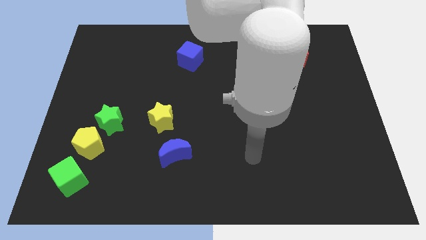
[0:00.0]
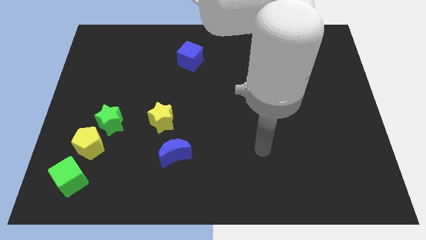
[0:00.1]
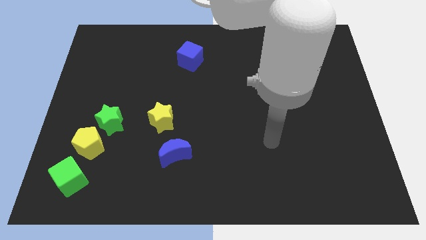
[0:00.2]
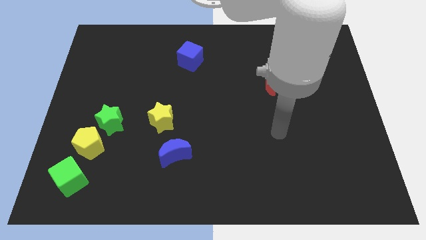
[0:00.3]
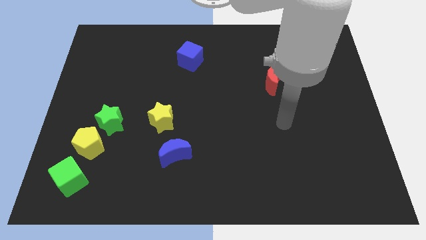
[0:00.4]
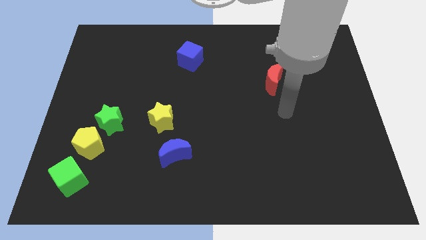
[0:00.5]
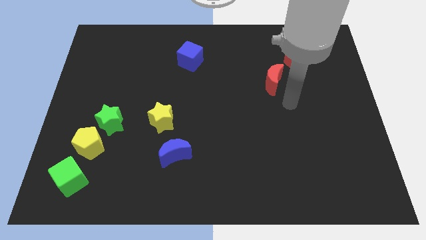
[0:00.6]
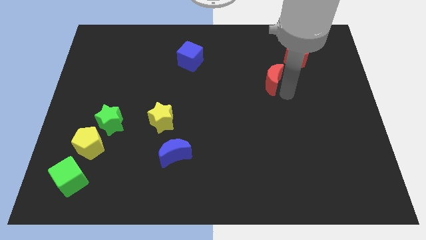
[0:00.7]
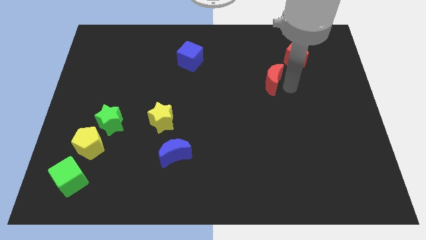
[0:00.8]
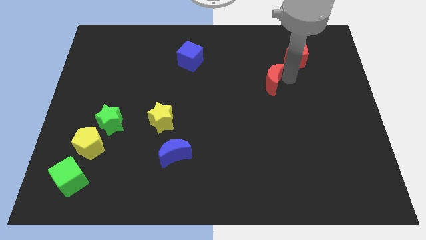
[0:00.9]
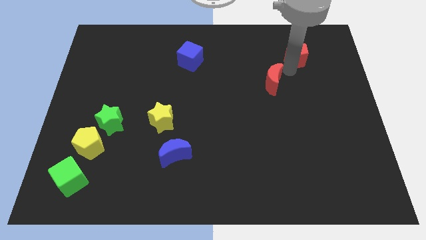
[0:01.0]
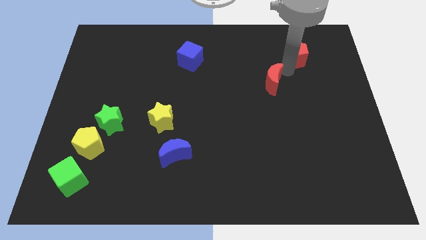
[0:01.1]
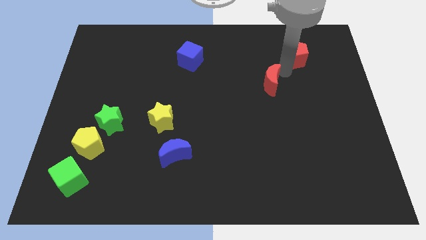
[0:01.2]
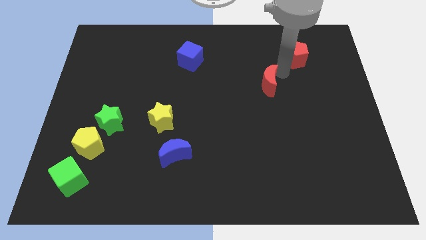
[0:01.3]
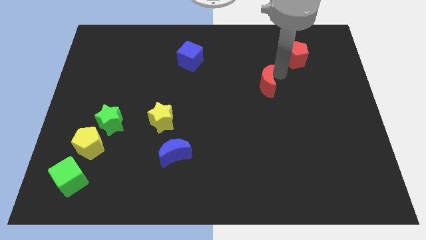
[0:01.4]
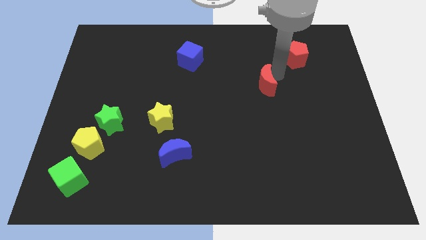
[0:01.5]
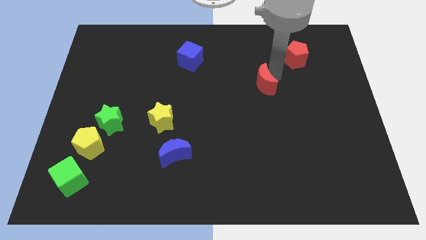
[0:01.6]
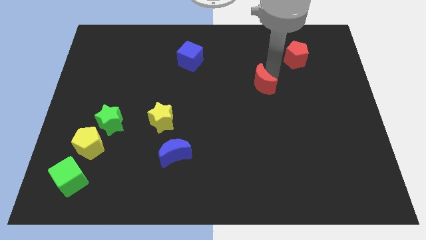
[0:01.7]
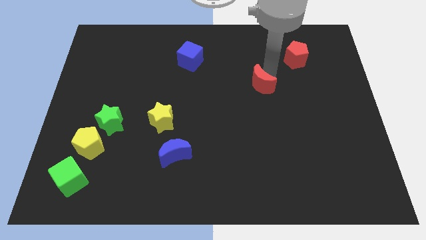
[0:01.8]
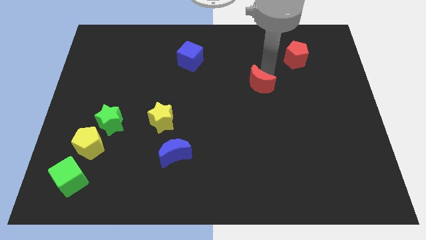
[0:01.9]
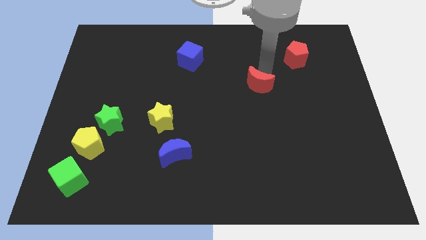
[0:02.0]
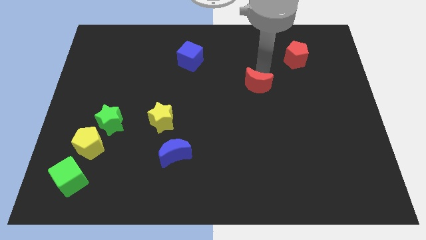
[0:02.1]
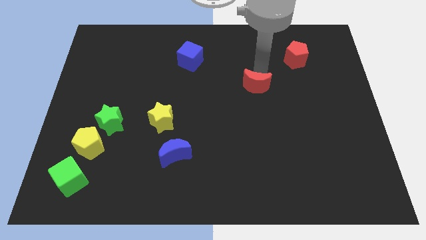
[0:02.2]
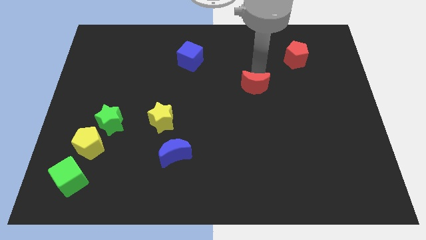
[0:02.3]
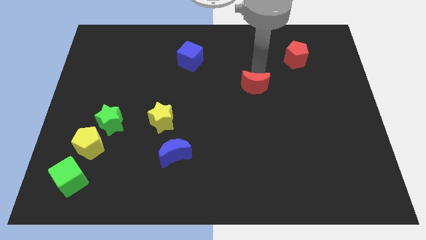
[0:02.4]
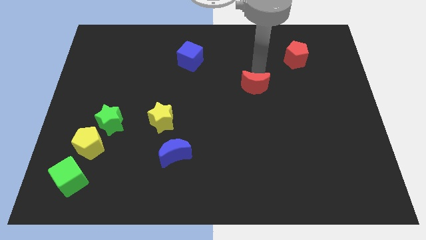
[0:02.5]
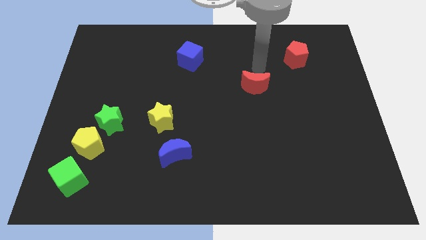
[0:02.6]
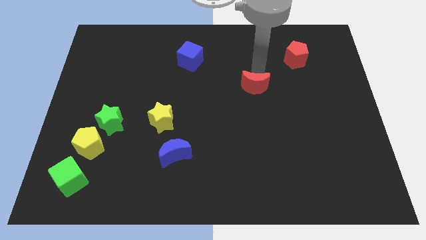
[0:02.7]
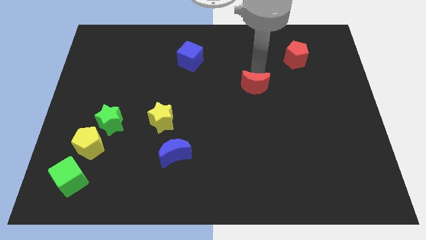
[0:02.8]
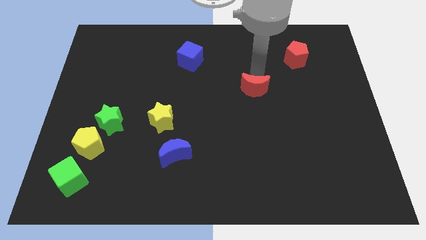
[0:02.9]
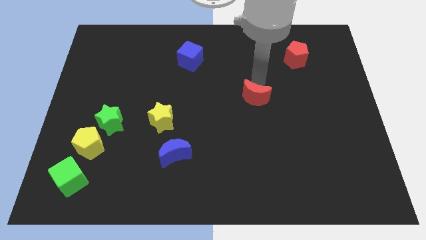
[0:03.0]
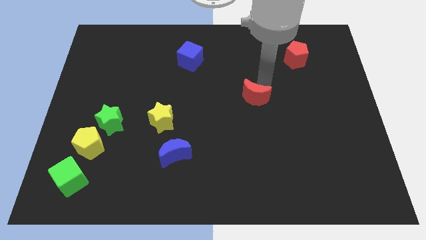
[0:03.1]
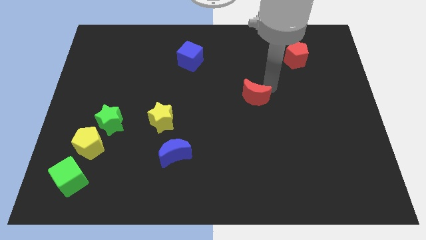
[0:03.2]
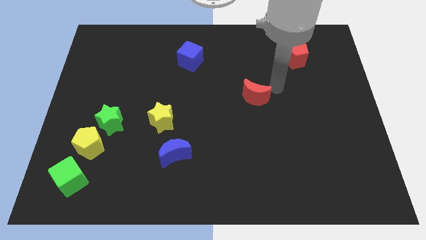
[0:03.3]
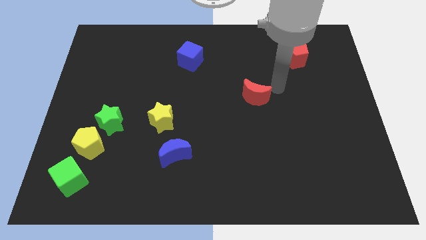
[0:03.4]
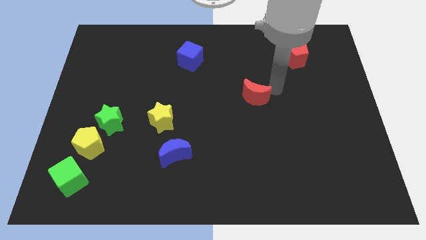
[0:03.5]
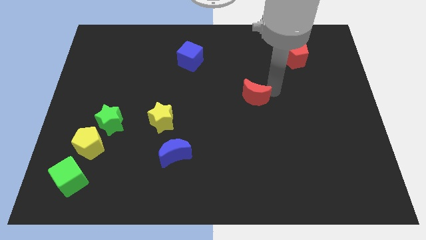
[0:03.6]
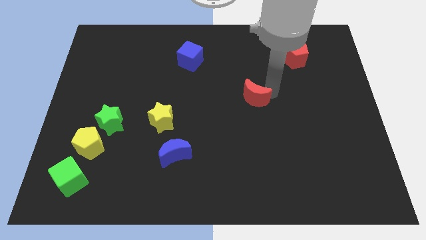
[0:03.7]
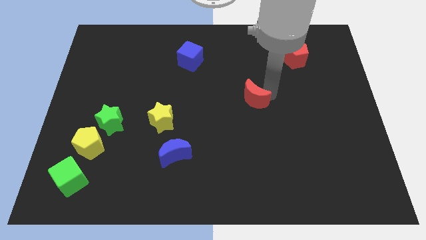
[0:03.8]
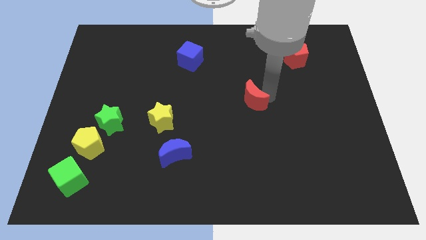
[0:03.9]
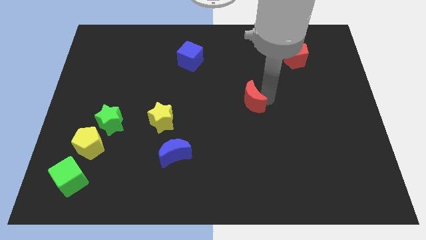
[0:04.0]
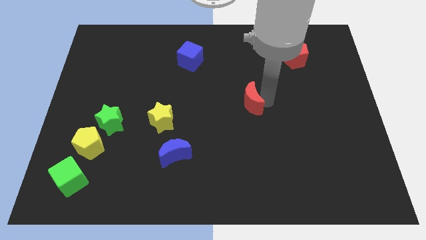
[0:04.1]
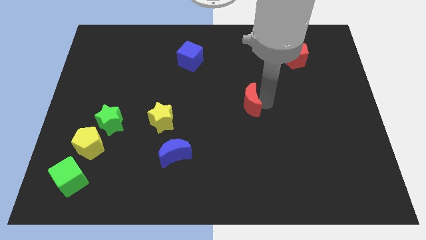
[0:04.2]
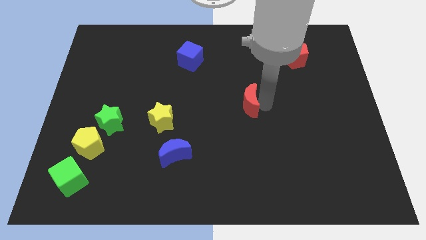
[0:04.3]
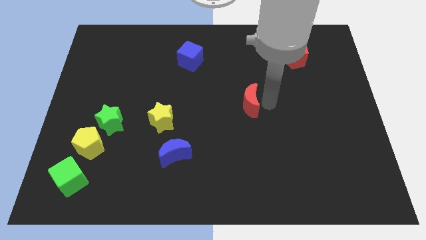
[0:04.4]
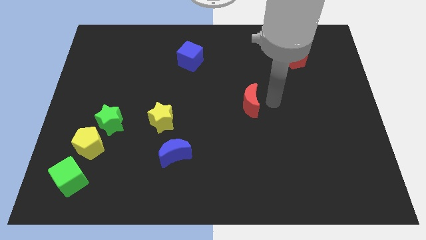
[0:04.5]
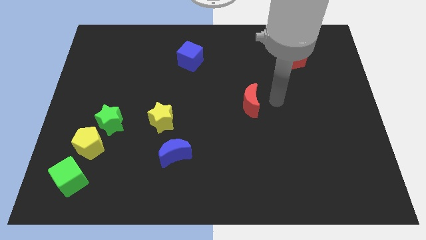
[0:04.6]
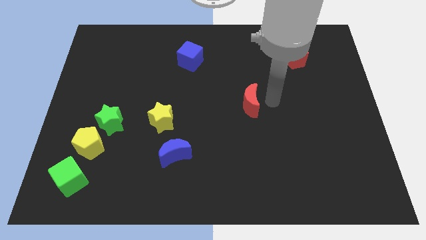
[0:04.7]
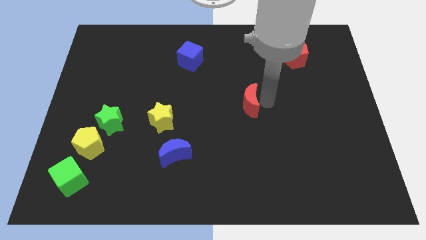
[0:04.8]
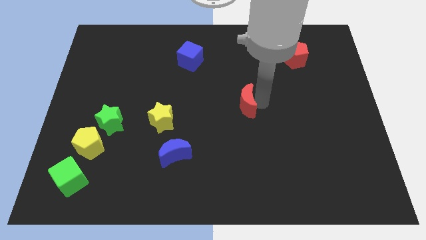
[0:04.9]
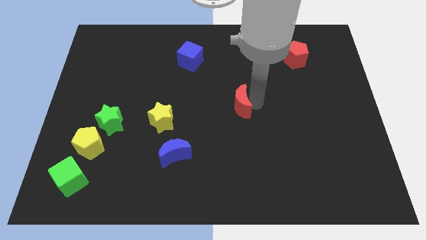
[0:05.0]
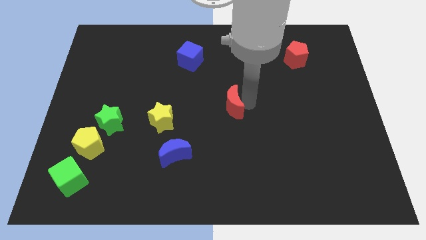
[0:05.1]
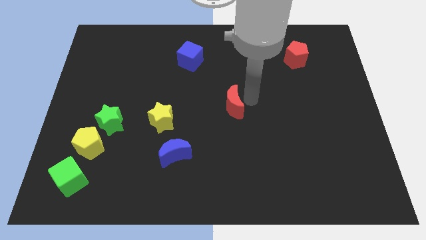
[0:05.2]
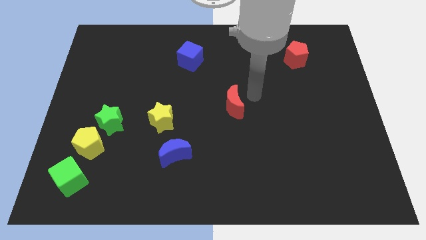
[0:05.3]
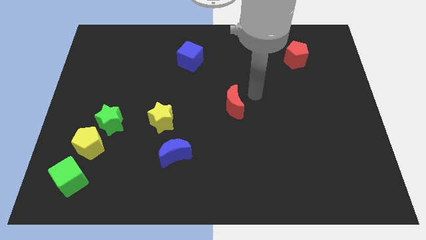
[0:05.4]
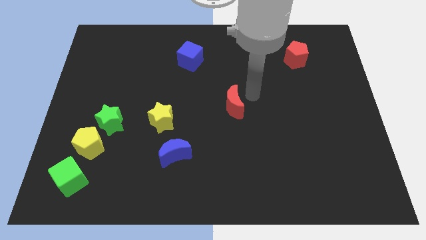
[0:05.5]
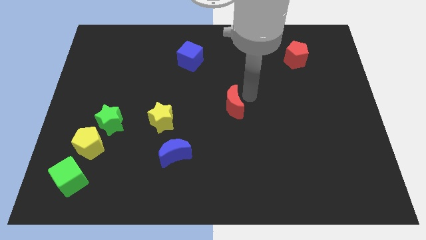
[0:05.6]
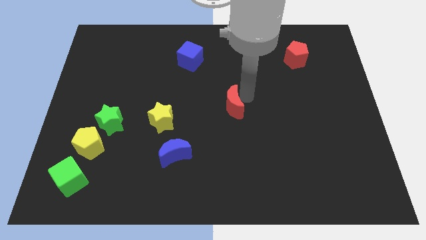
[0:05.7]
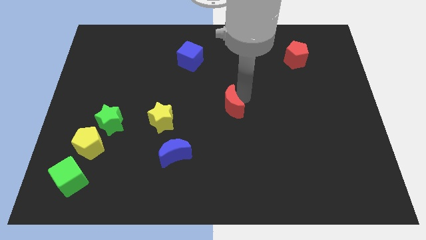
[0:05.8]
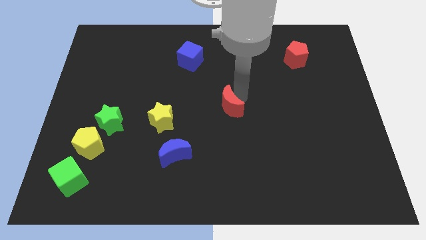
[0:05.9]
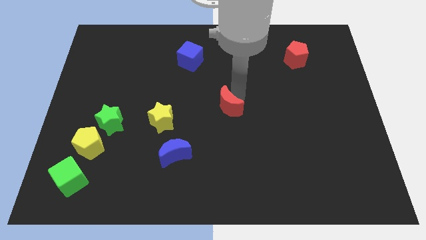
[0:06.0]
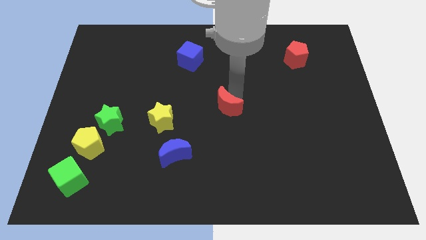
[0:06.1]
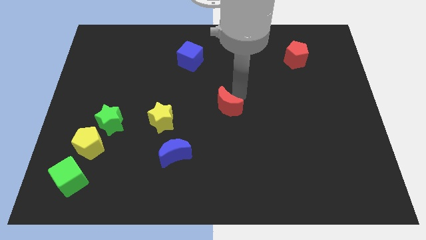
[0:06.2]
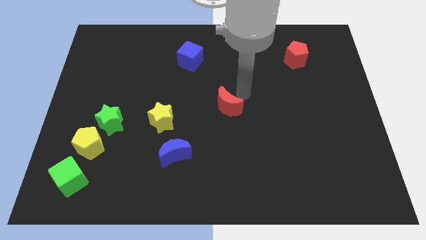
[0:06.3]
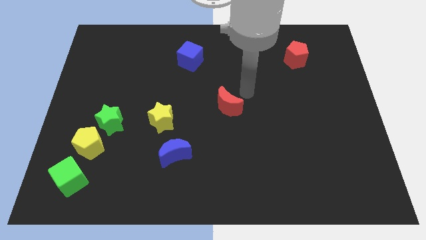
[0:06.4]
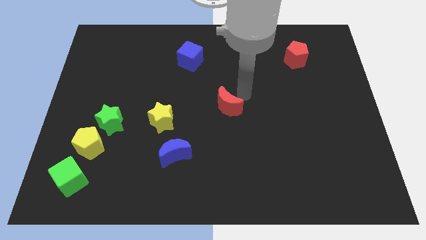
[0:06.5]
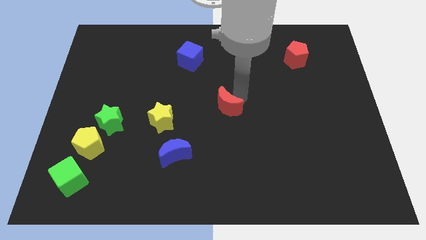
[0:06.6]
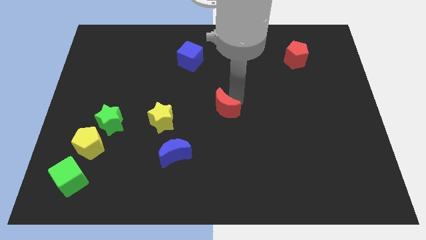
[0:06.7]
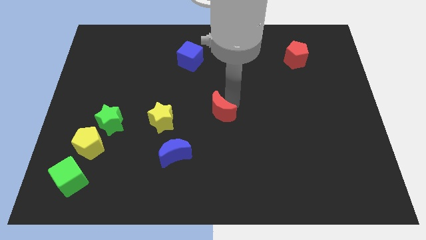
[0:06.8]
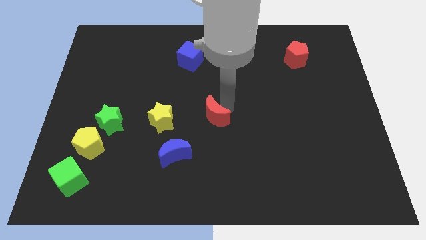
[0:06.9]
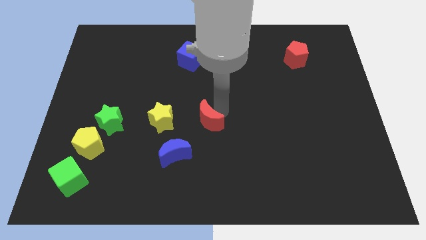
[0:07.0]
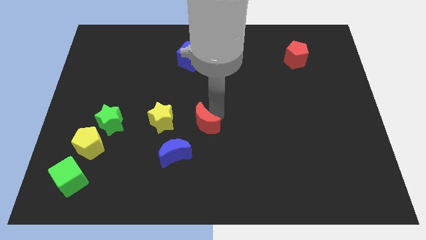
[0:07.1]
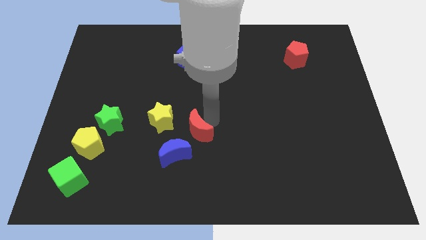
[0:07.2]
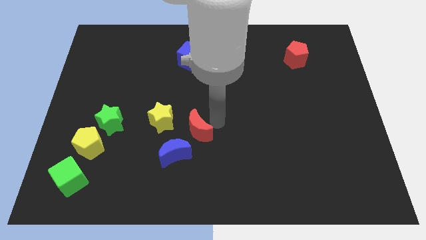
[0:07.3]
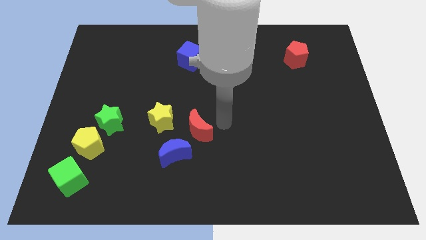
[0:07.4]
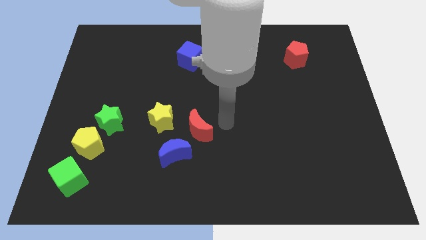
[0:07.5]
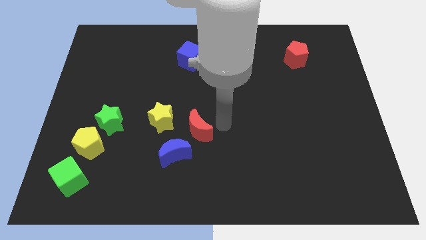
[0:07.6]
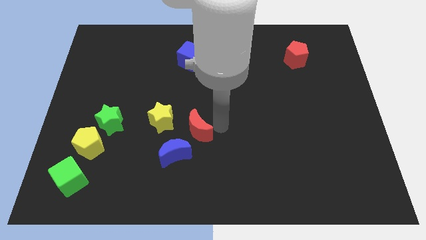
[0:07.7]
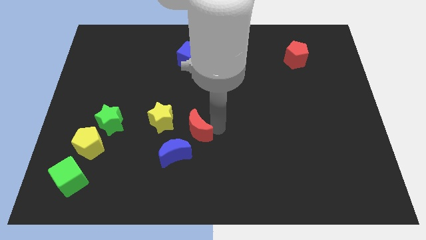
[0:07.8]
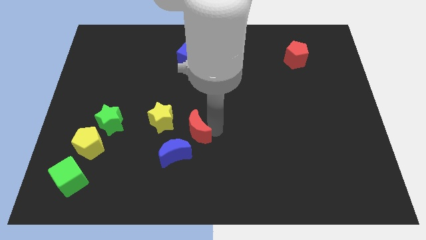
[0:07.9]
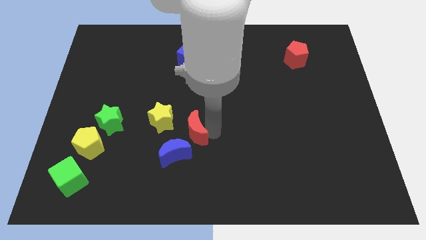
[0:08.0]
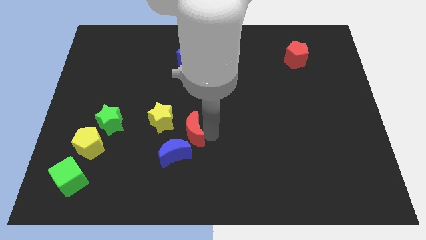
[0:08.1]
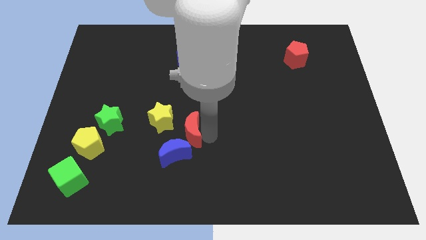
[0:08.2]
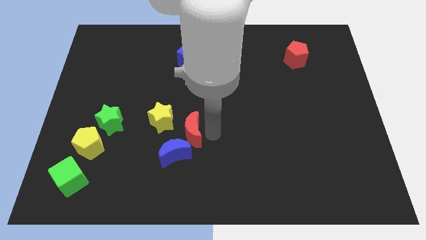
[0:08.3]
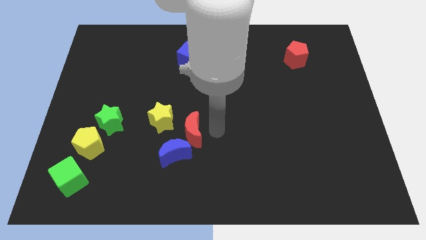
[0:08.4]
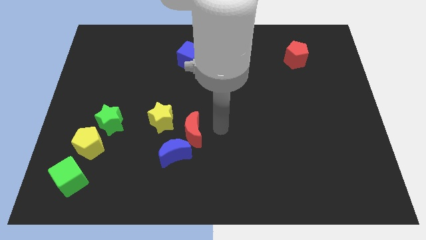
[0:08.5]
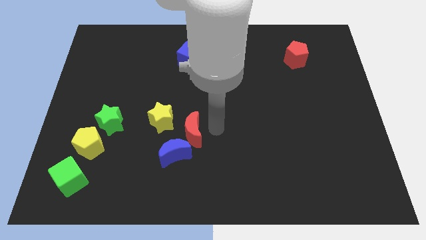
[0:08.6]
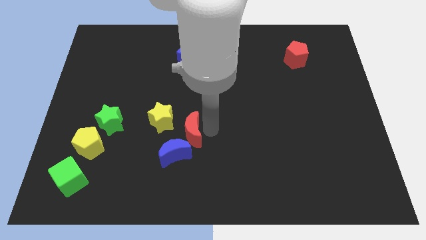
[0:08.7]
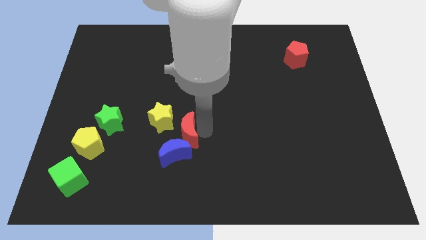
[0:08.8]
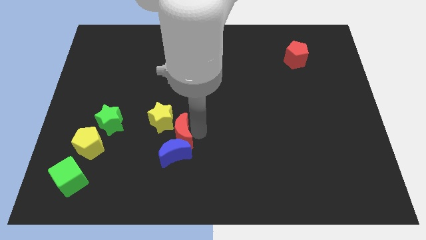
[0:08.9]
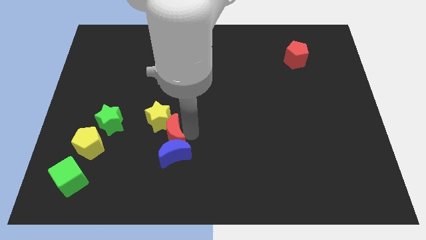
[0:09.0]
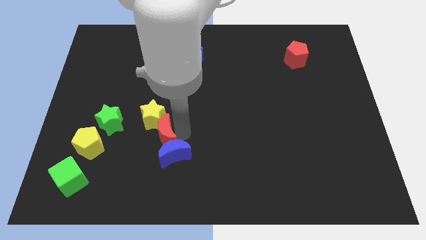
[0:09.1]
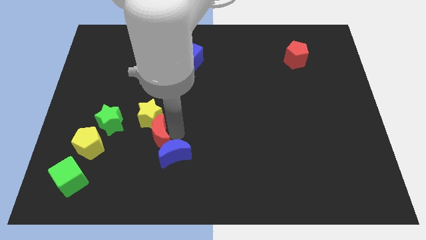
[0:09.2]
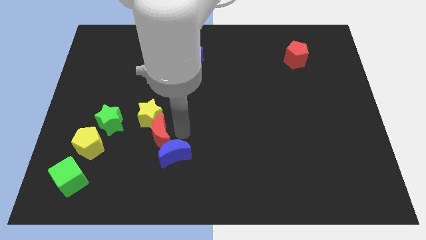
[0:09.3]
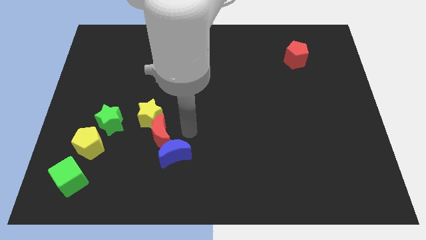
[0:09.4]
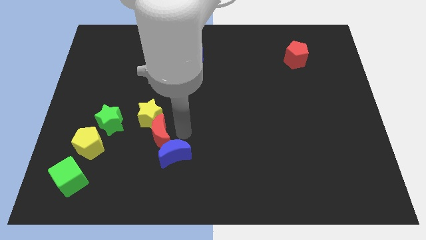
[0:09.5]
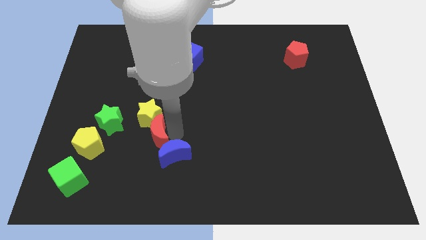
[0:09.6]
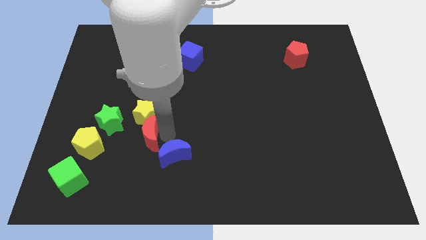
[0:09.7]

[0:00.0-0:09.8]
slide the red moon diagonally down and to the right of the green star
